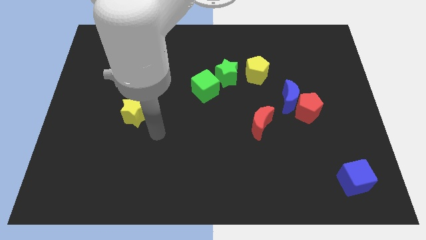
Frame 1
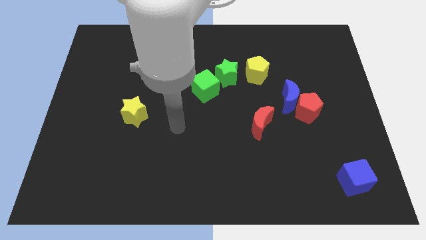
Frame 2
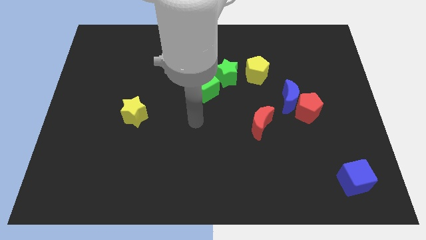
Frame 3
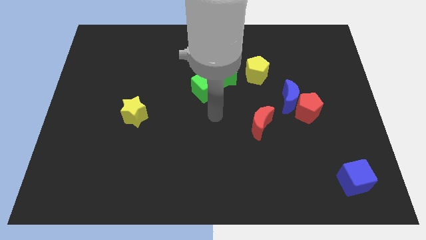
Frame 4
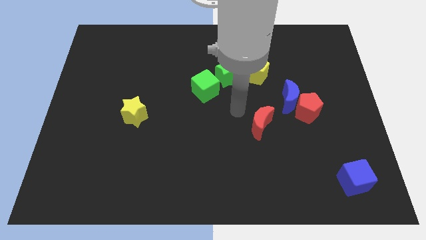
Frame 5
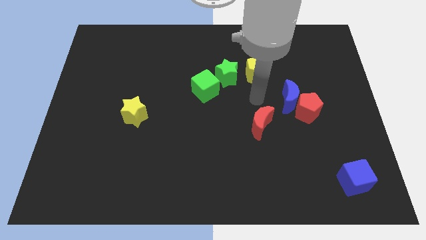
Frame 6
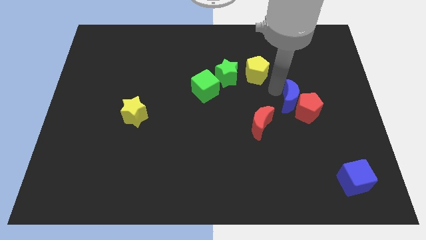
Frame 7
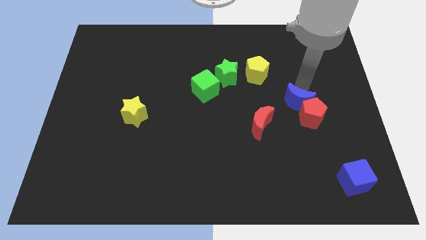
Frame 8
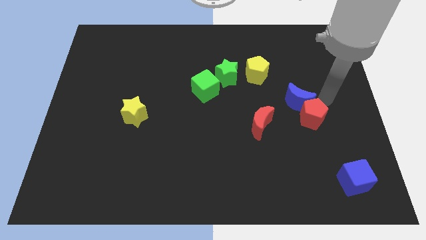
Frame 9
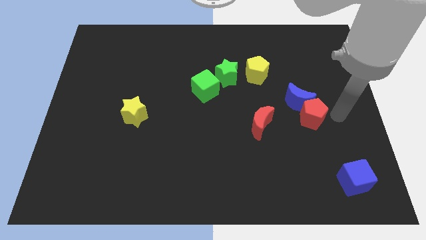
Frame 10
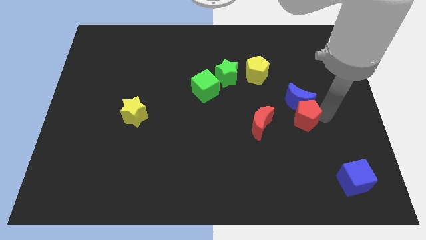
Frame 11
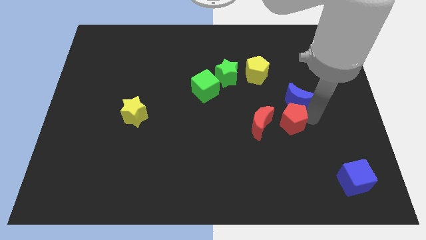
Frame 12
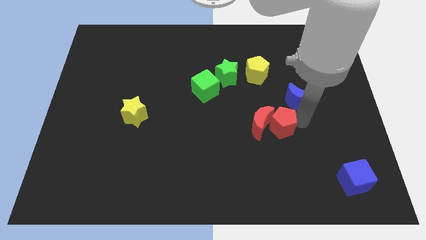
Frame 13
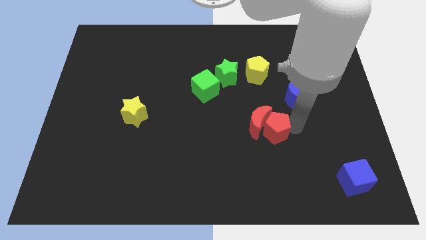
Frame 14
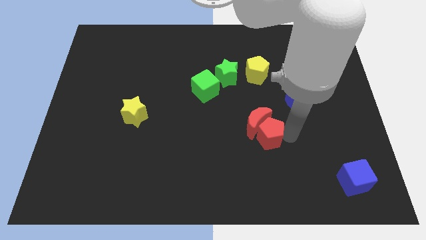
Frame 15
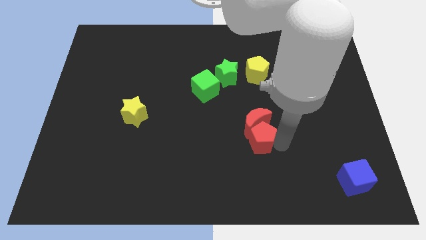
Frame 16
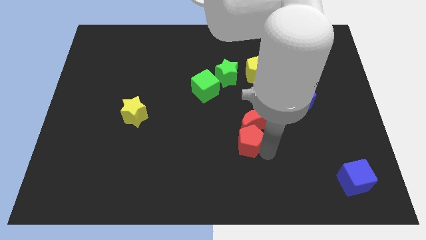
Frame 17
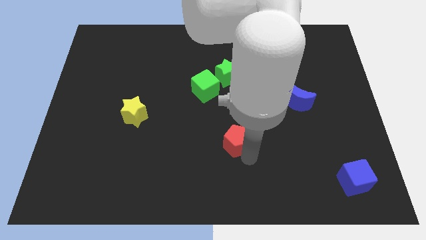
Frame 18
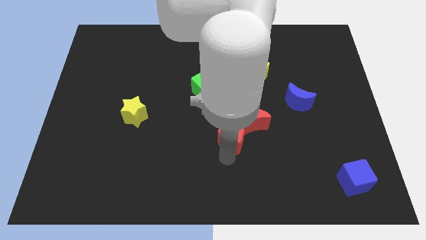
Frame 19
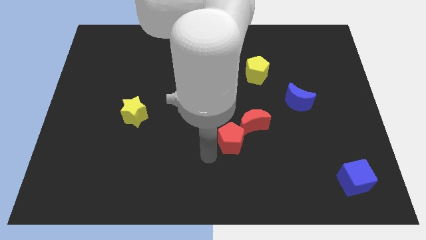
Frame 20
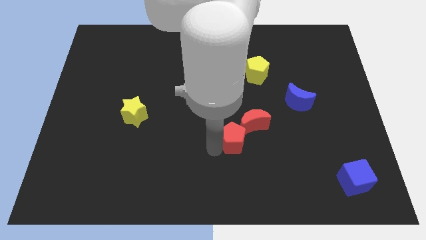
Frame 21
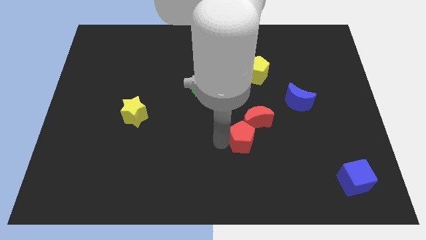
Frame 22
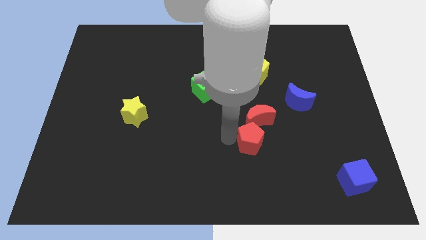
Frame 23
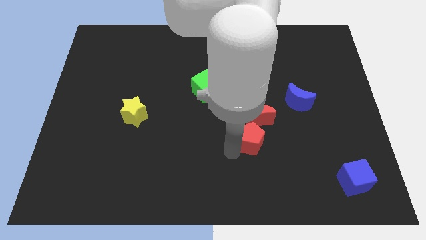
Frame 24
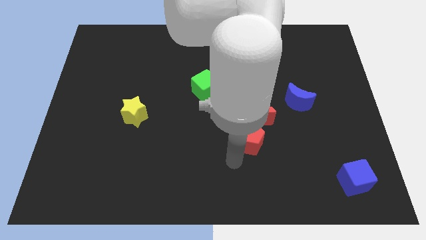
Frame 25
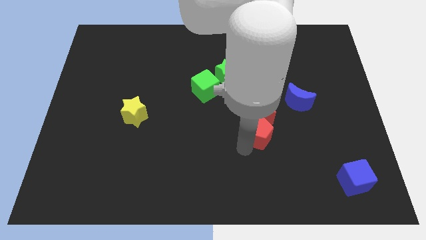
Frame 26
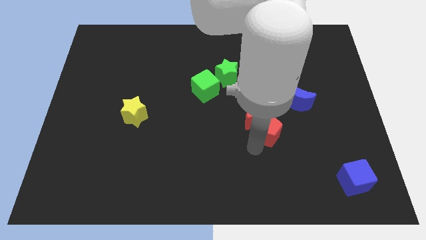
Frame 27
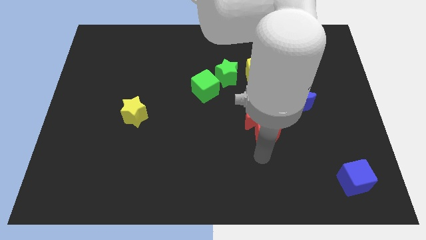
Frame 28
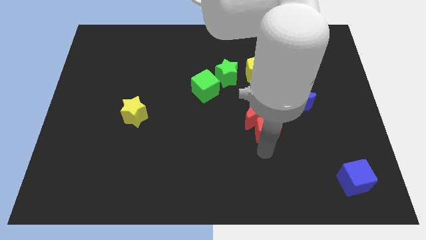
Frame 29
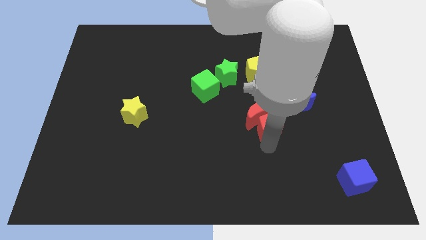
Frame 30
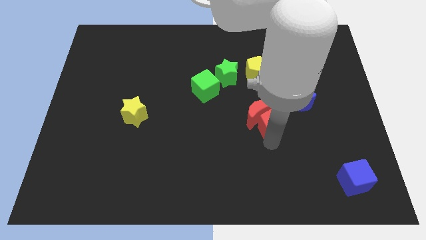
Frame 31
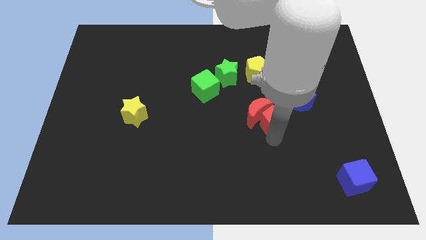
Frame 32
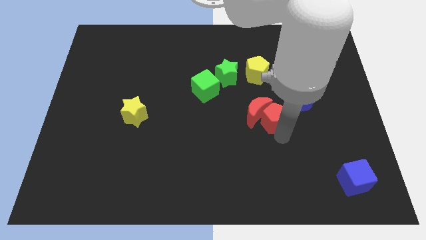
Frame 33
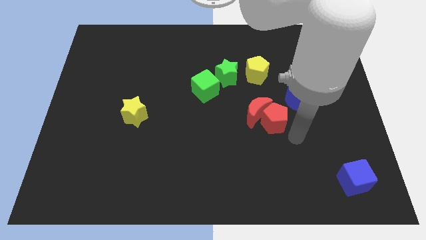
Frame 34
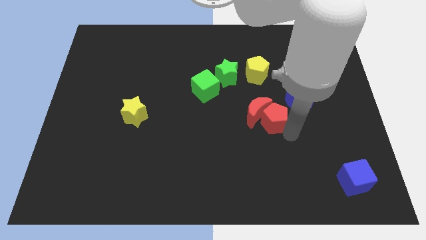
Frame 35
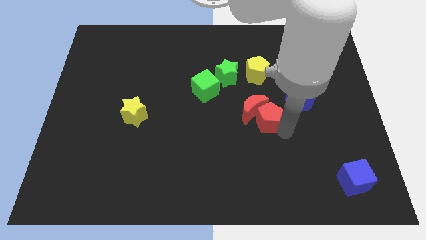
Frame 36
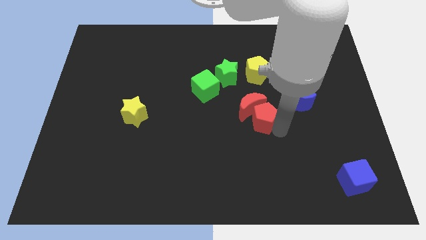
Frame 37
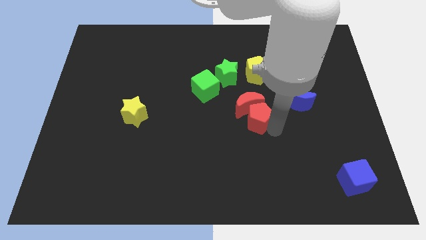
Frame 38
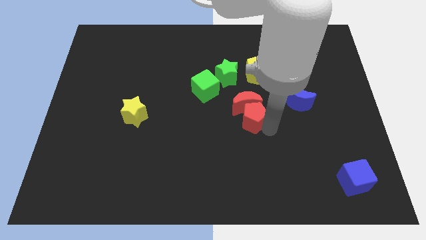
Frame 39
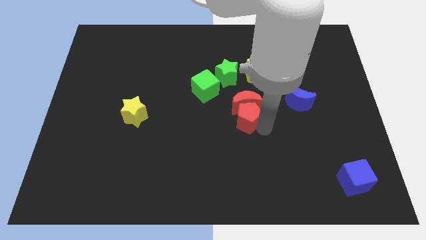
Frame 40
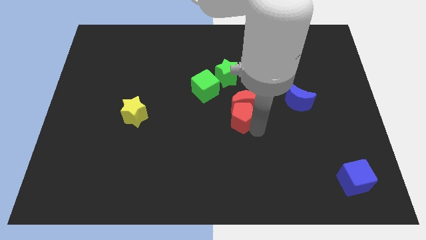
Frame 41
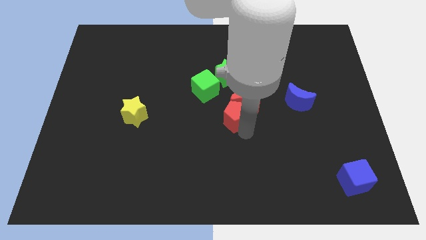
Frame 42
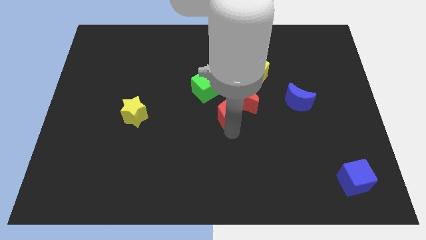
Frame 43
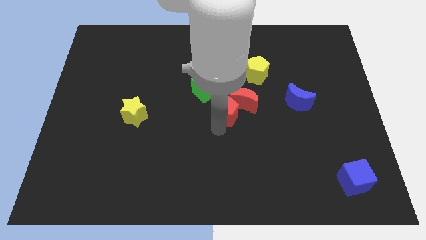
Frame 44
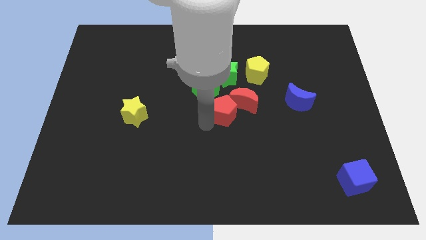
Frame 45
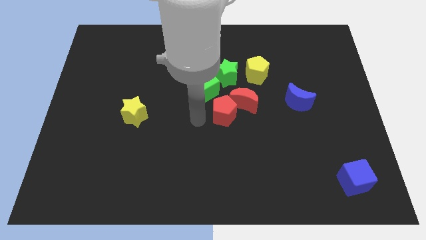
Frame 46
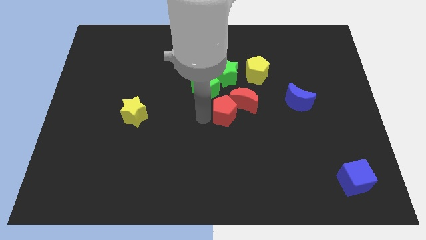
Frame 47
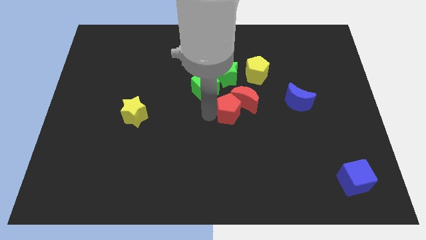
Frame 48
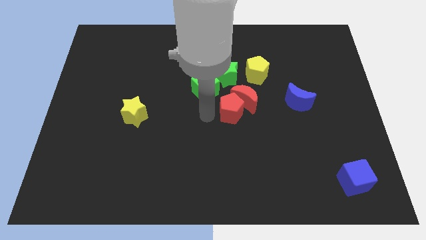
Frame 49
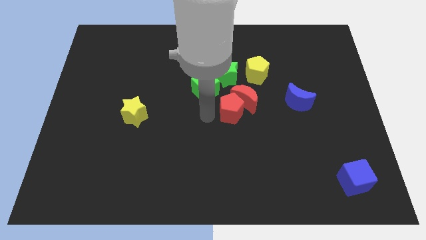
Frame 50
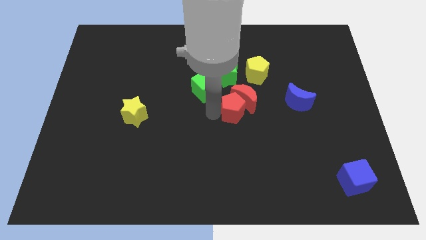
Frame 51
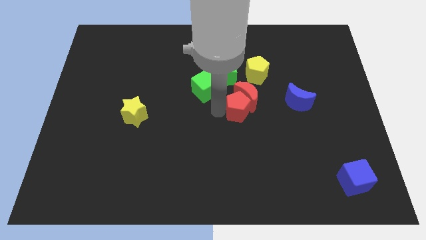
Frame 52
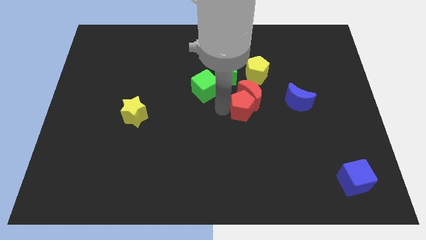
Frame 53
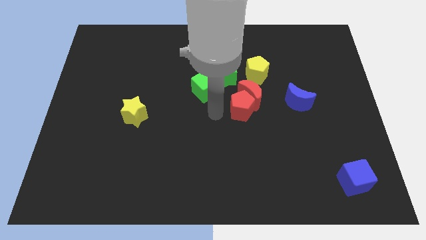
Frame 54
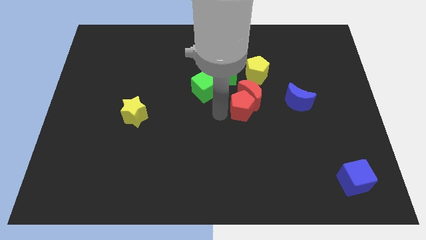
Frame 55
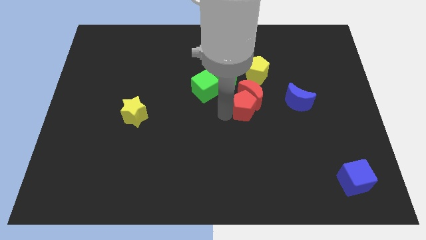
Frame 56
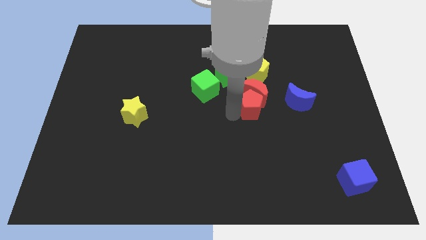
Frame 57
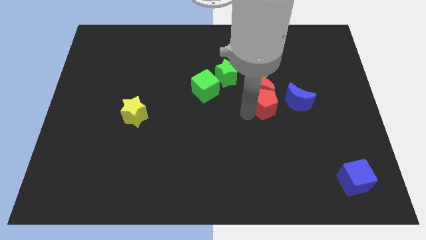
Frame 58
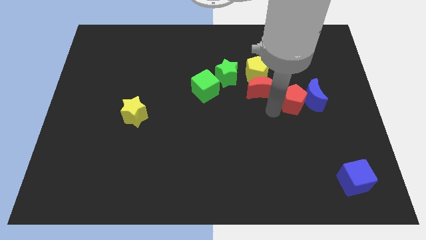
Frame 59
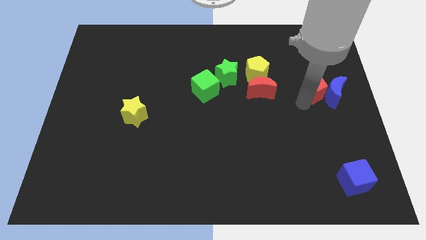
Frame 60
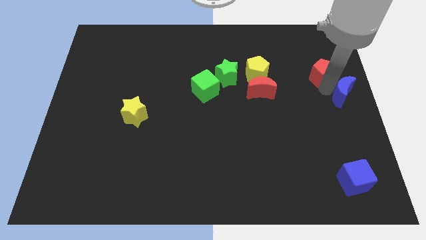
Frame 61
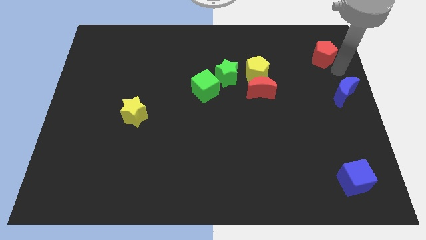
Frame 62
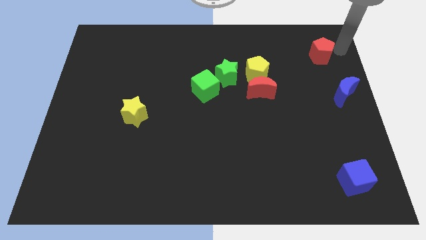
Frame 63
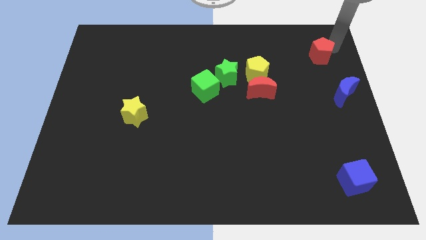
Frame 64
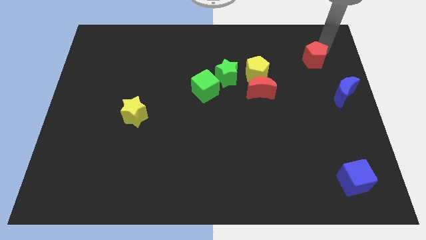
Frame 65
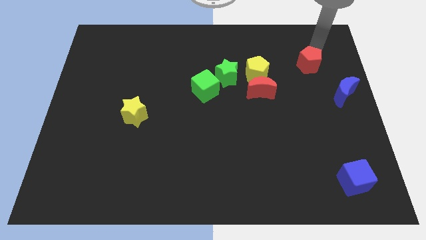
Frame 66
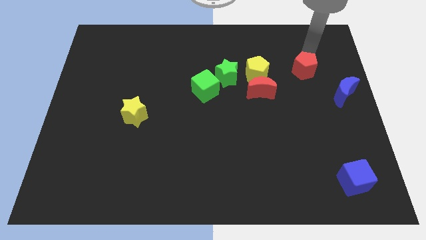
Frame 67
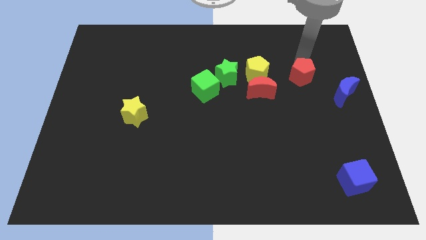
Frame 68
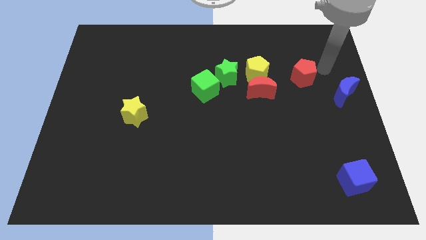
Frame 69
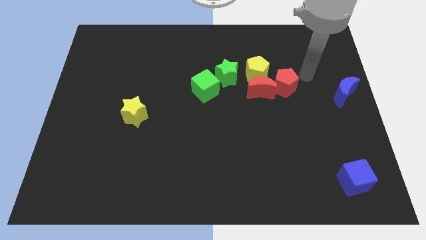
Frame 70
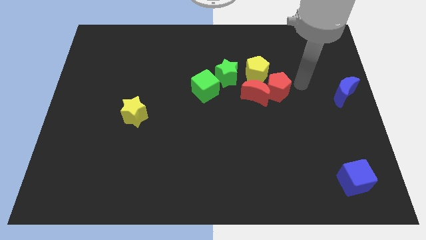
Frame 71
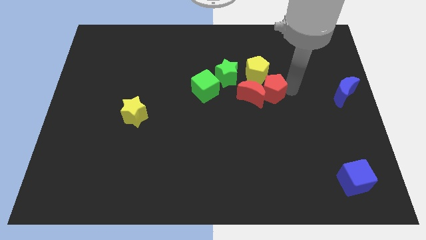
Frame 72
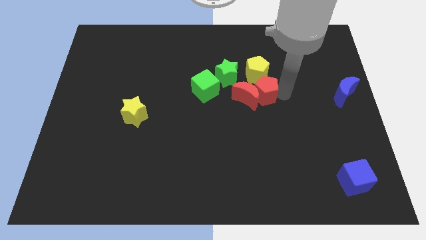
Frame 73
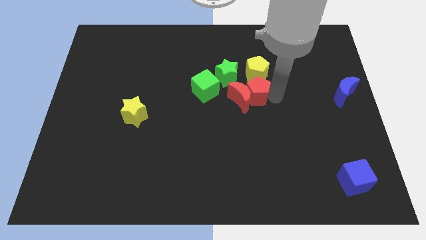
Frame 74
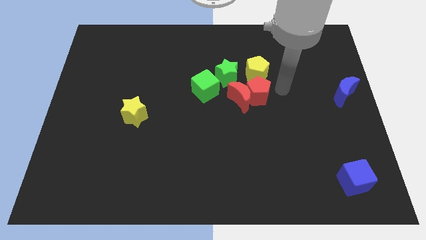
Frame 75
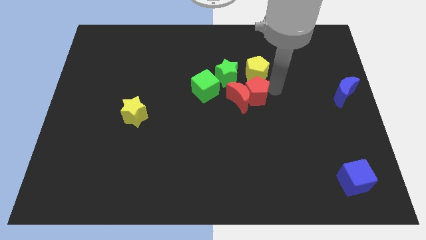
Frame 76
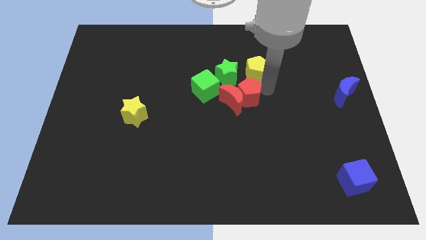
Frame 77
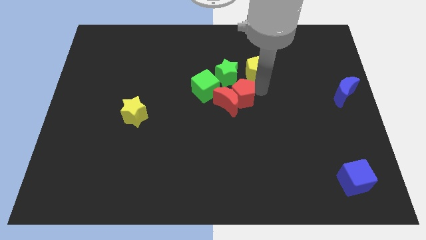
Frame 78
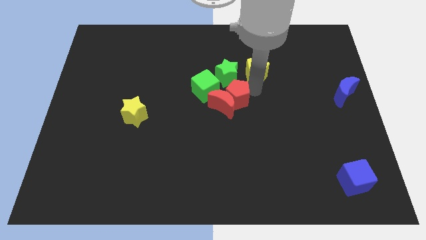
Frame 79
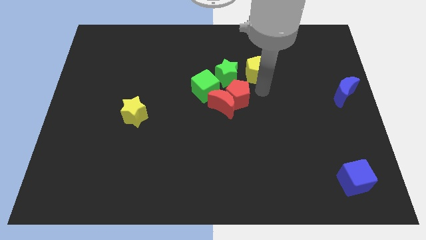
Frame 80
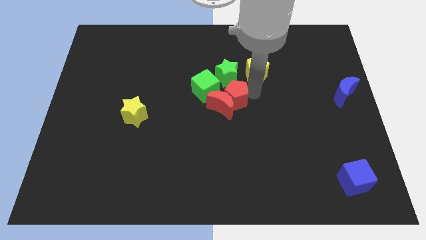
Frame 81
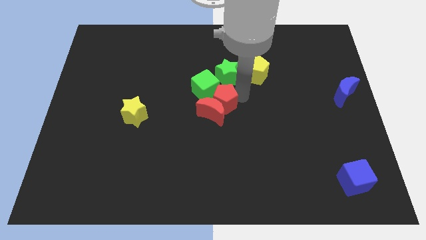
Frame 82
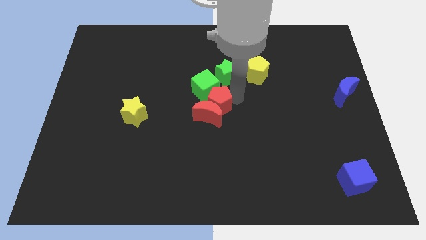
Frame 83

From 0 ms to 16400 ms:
slide the red pentagon left
